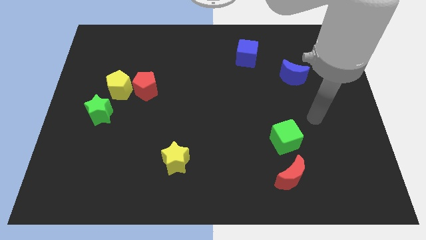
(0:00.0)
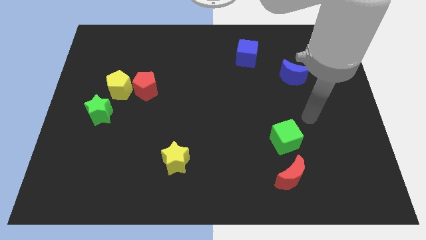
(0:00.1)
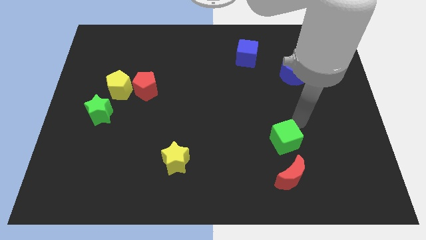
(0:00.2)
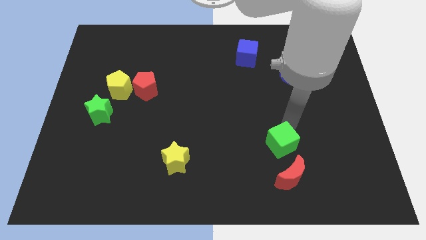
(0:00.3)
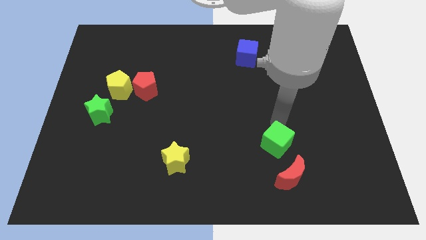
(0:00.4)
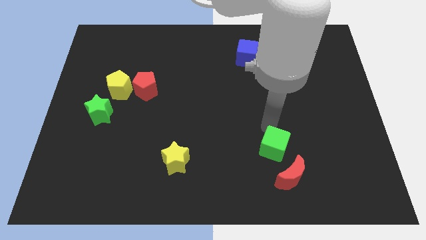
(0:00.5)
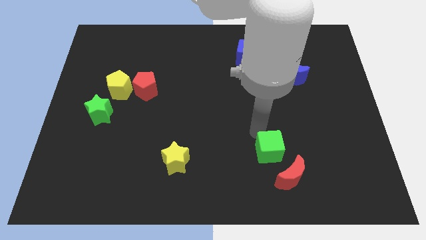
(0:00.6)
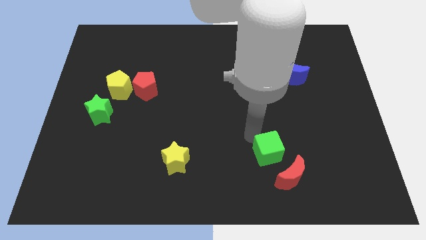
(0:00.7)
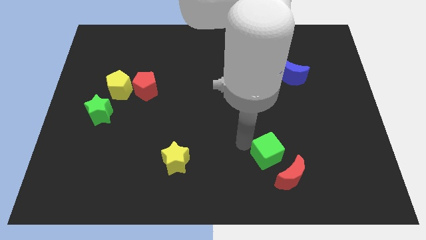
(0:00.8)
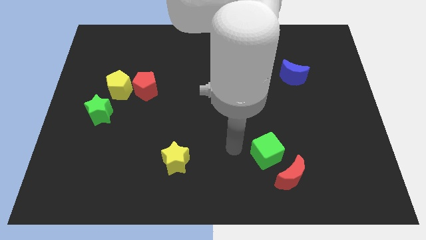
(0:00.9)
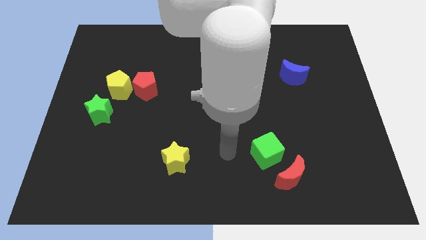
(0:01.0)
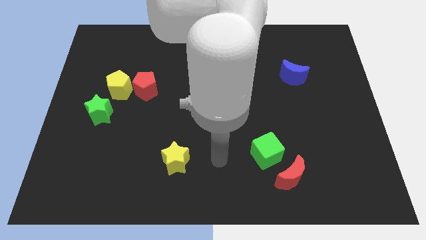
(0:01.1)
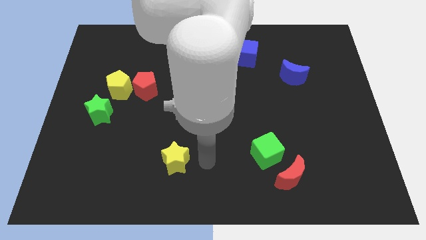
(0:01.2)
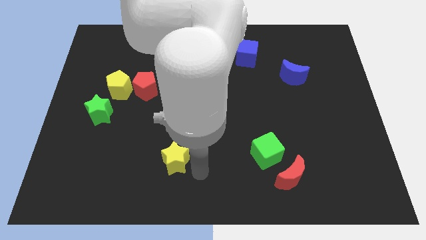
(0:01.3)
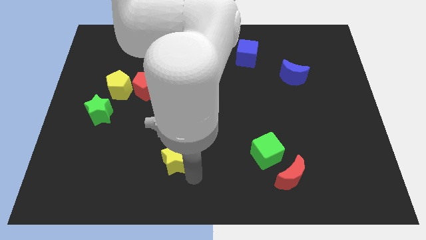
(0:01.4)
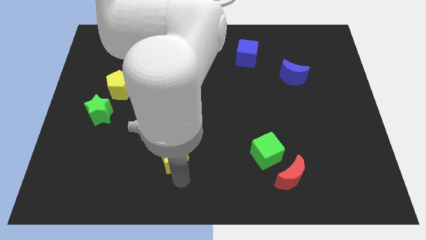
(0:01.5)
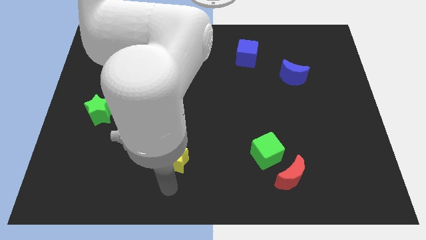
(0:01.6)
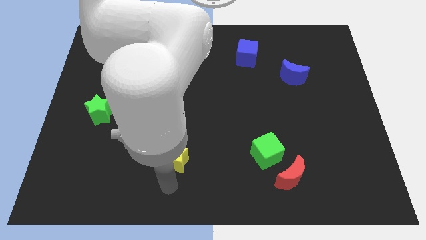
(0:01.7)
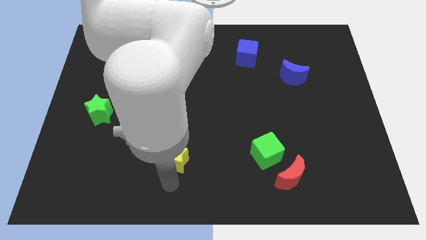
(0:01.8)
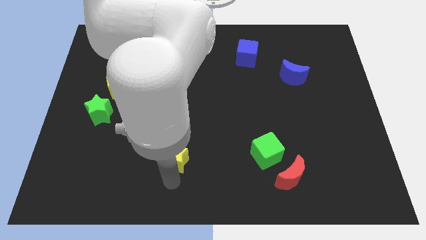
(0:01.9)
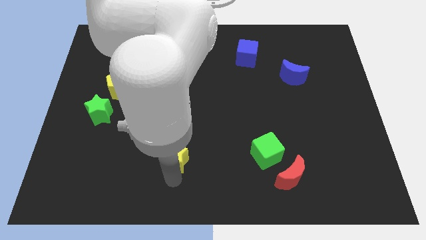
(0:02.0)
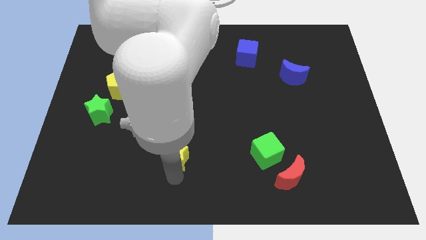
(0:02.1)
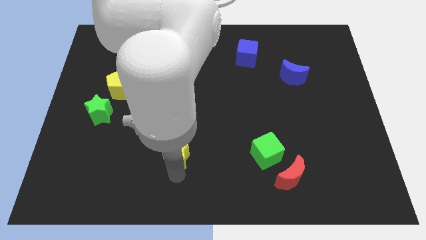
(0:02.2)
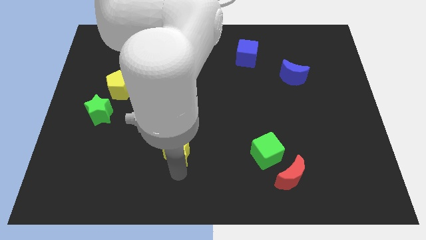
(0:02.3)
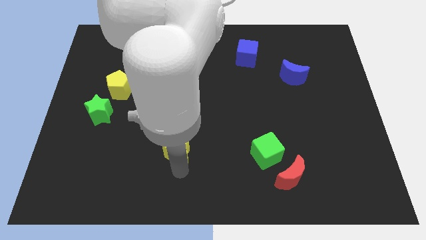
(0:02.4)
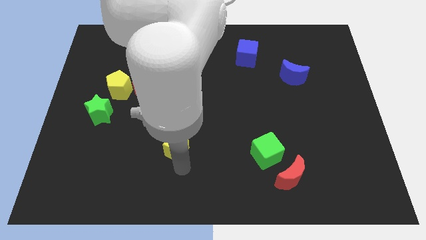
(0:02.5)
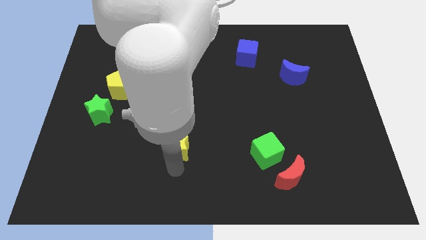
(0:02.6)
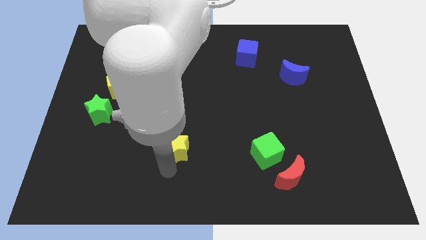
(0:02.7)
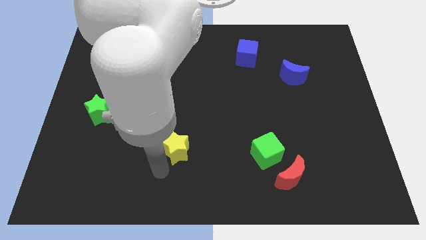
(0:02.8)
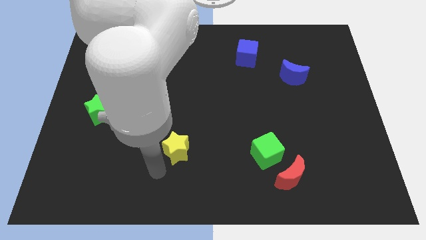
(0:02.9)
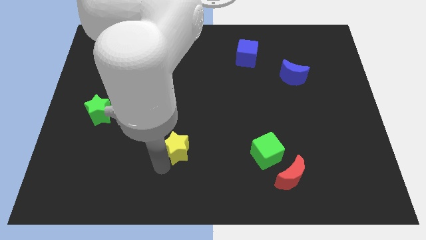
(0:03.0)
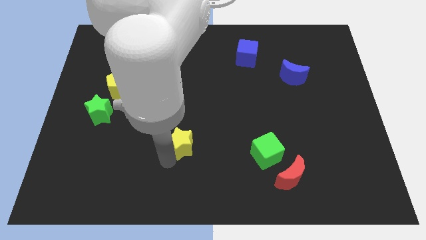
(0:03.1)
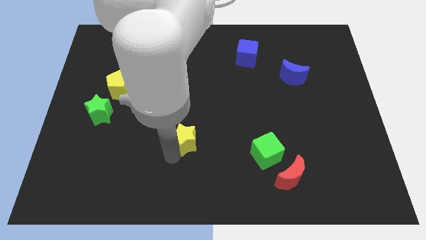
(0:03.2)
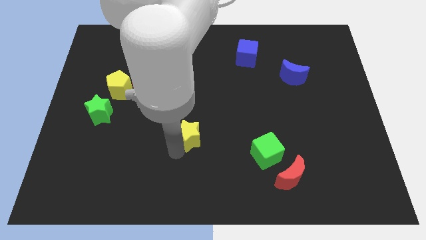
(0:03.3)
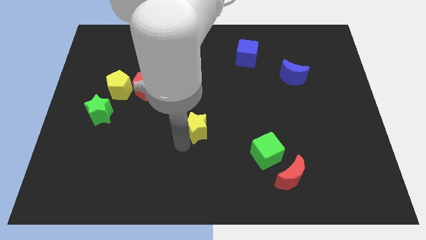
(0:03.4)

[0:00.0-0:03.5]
slightly slide the yellow star upwards and to the right diagonally

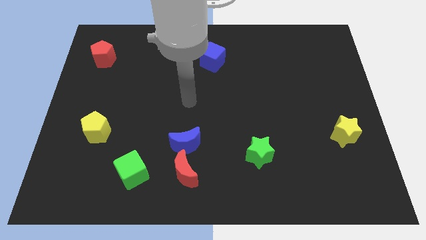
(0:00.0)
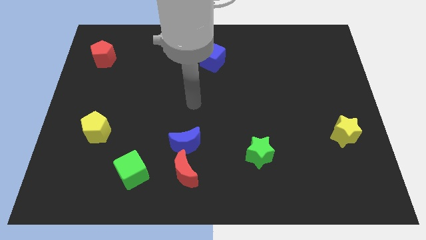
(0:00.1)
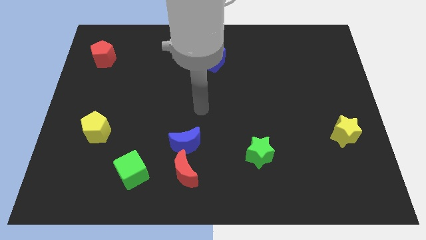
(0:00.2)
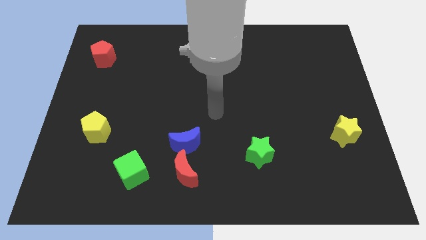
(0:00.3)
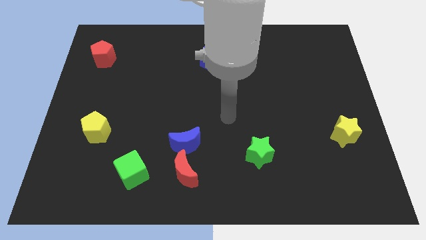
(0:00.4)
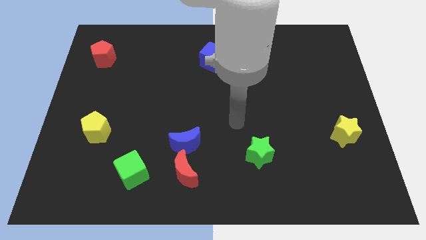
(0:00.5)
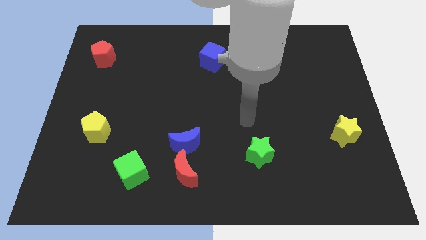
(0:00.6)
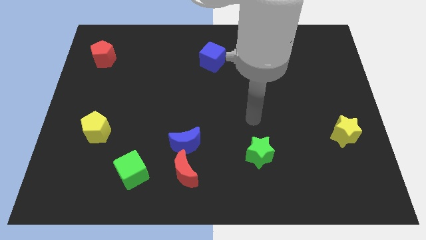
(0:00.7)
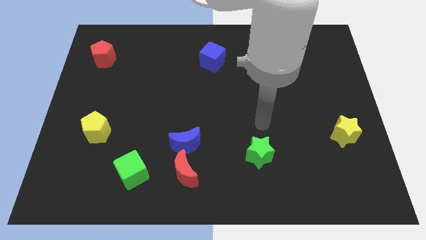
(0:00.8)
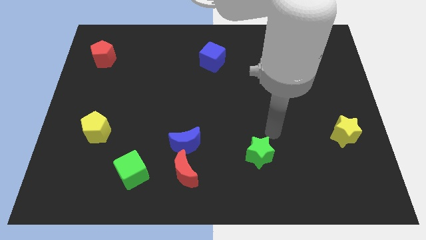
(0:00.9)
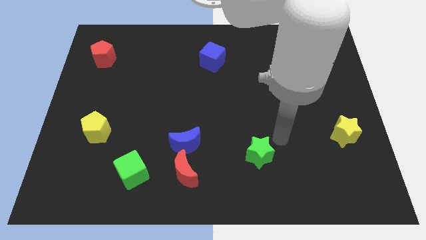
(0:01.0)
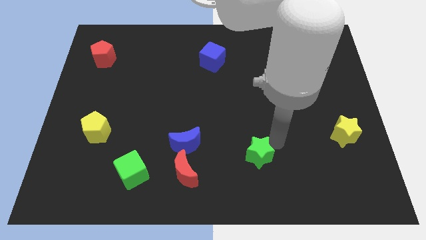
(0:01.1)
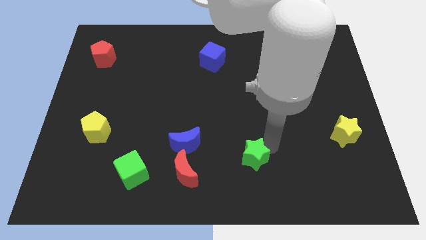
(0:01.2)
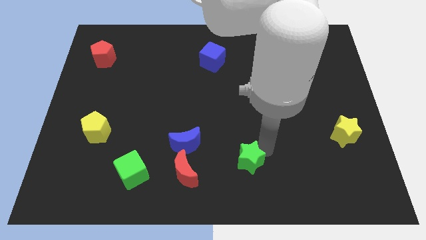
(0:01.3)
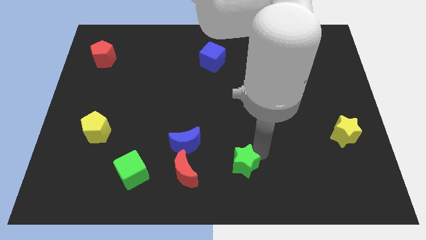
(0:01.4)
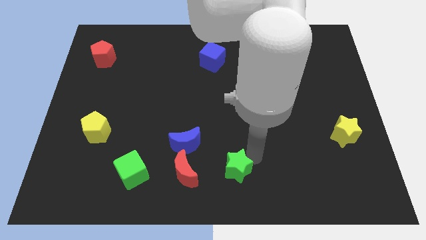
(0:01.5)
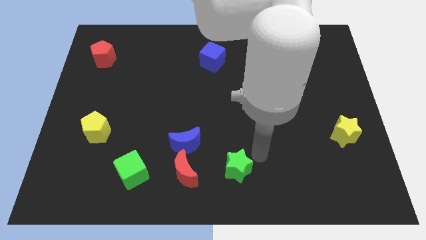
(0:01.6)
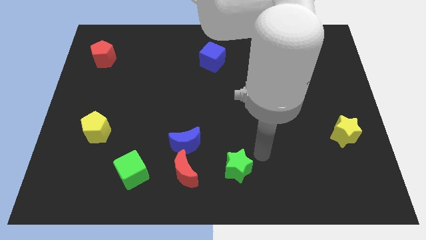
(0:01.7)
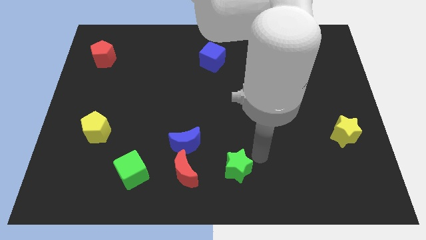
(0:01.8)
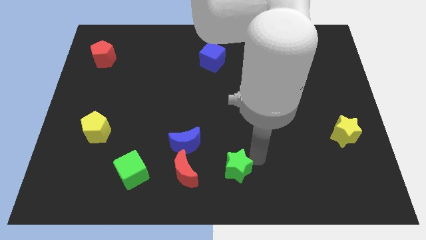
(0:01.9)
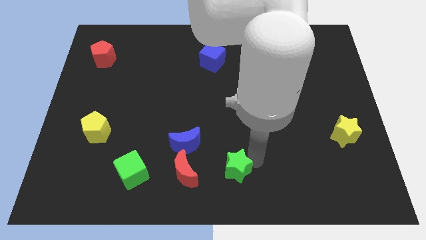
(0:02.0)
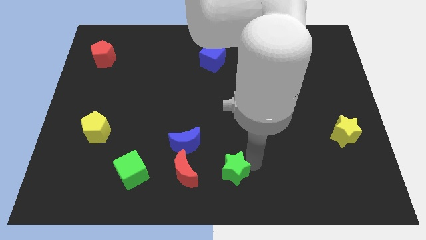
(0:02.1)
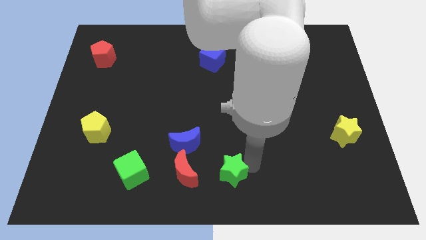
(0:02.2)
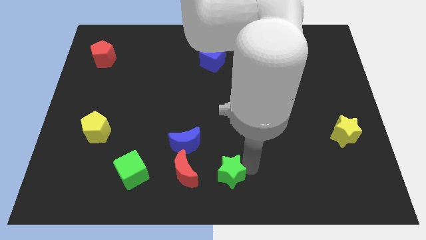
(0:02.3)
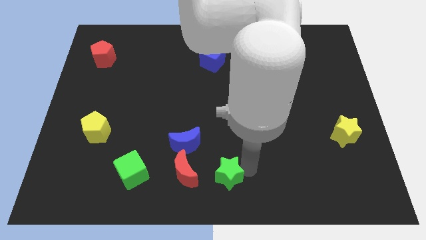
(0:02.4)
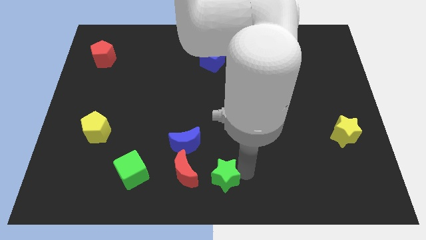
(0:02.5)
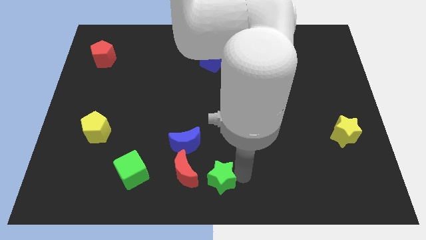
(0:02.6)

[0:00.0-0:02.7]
slightly push the green star left

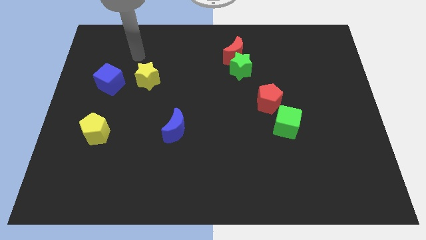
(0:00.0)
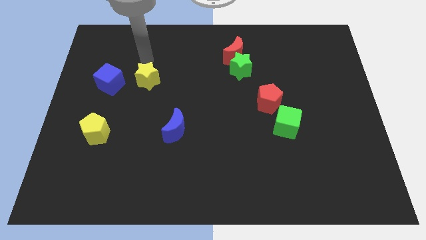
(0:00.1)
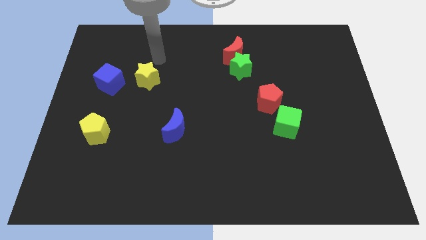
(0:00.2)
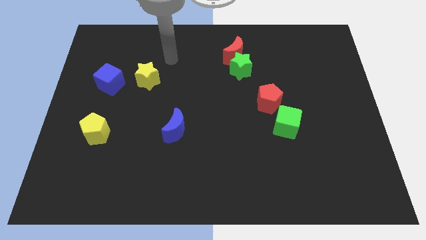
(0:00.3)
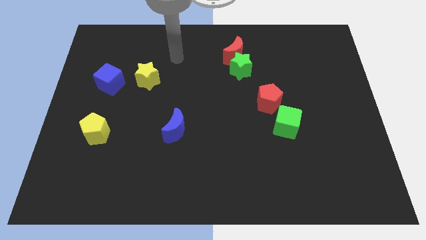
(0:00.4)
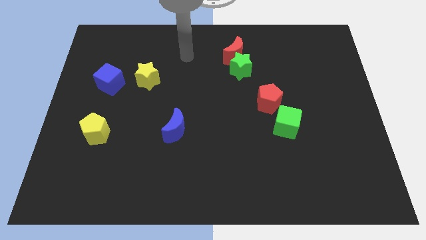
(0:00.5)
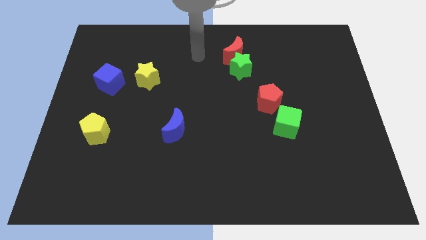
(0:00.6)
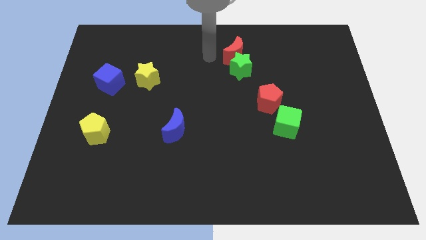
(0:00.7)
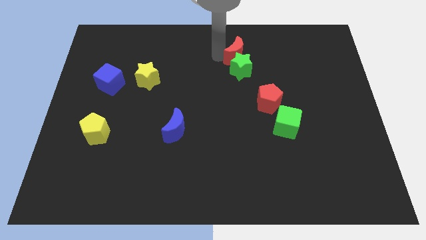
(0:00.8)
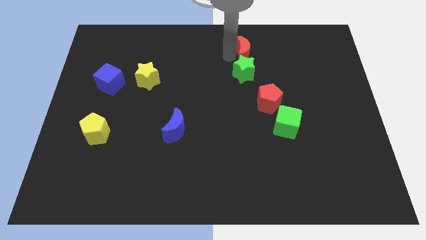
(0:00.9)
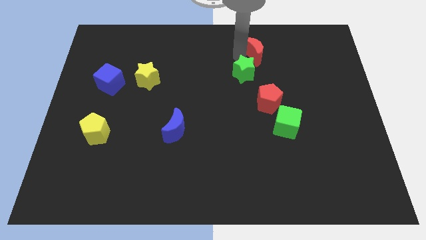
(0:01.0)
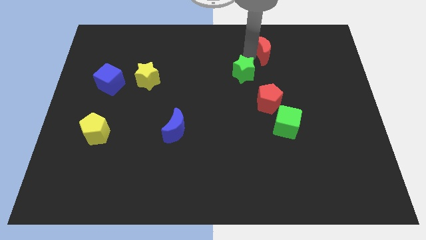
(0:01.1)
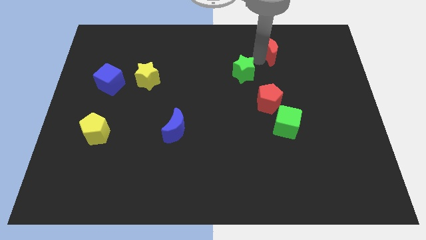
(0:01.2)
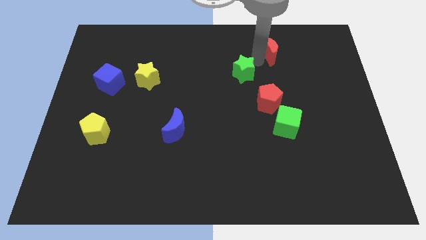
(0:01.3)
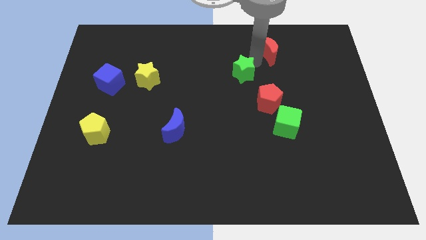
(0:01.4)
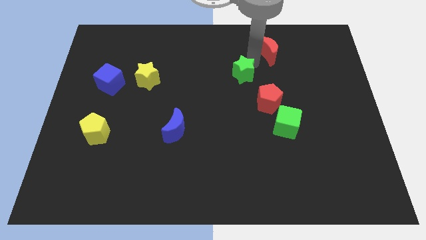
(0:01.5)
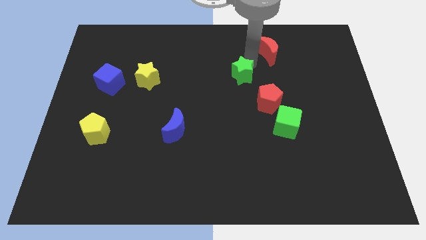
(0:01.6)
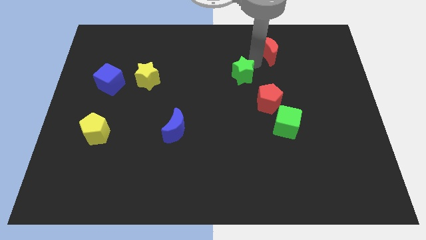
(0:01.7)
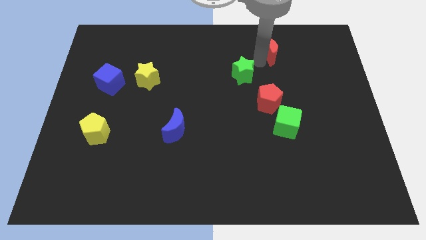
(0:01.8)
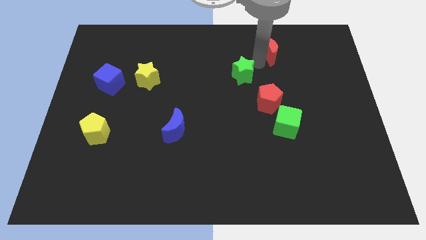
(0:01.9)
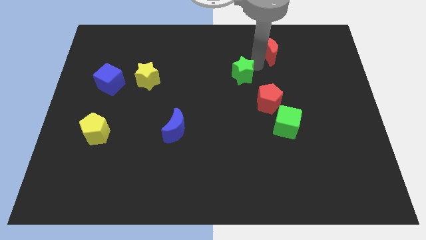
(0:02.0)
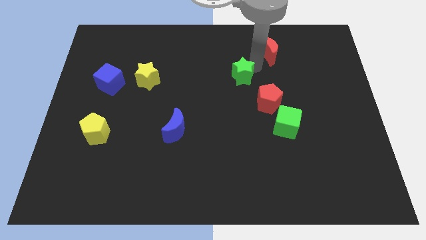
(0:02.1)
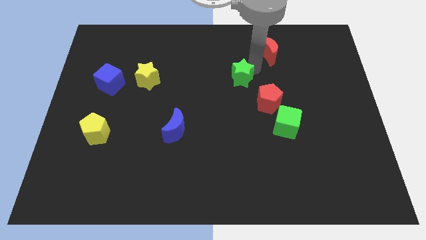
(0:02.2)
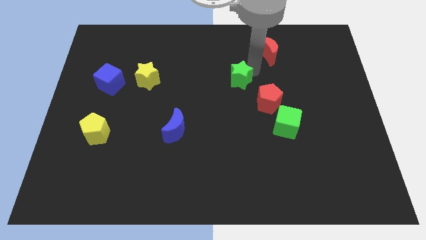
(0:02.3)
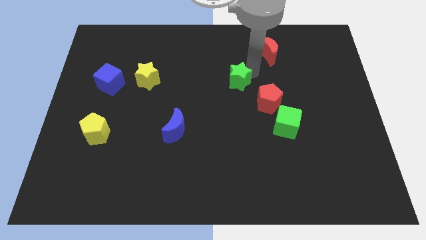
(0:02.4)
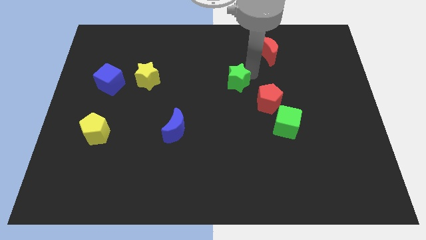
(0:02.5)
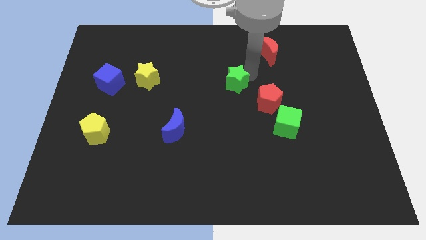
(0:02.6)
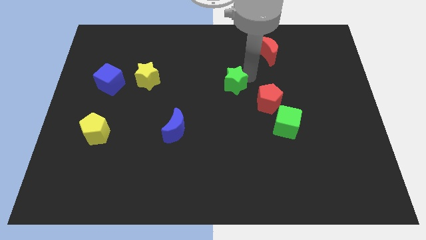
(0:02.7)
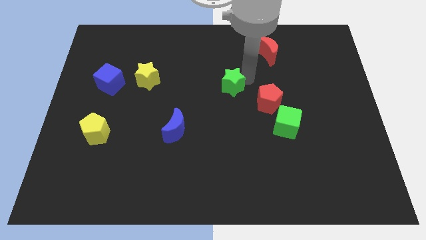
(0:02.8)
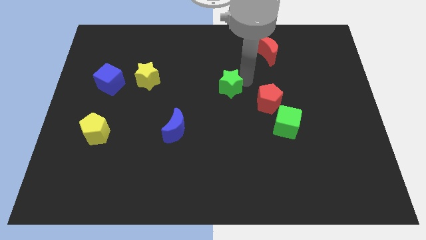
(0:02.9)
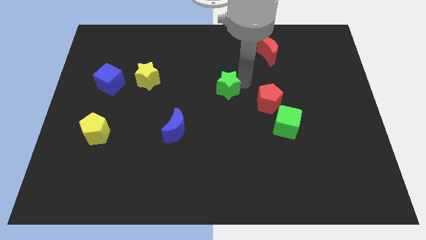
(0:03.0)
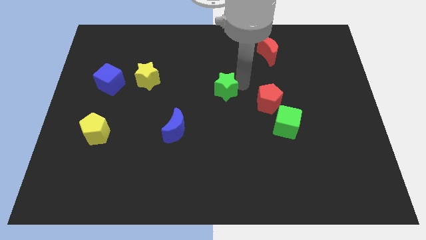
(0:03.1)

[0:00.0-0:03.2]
slightly slide the green star diagonally down and left
